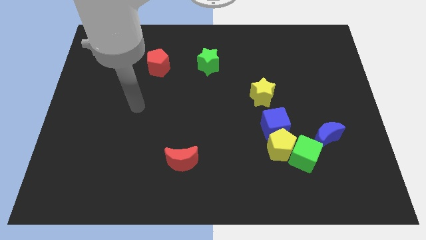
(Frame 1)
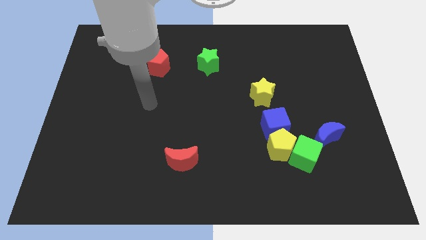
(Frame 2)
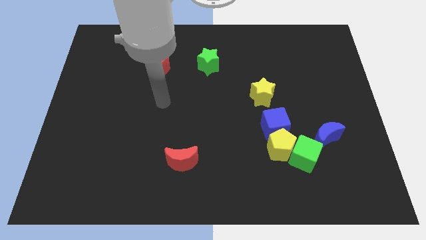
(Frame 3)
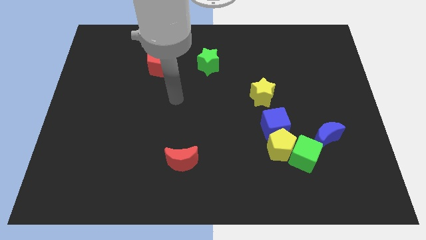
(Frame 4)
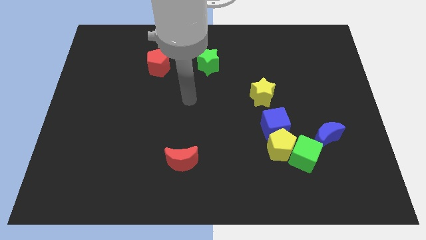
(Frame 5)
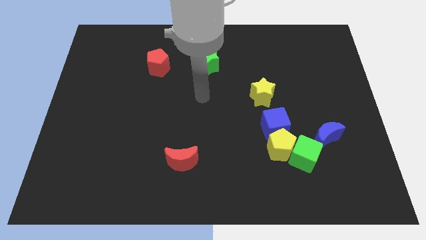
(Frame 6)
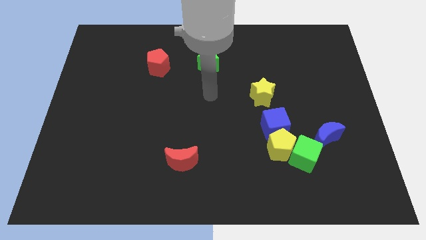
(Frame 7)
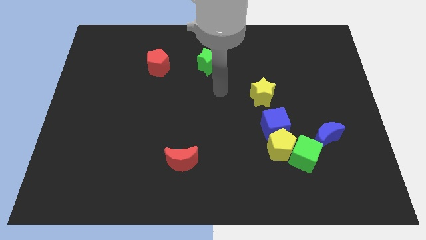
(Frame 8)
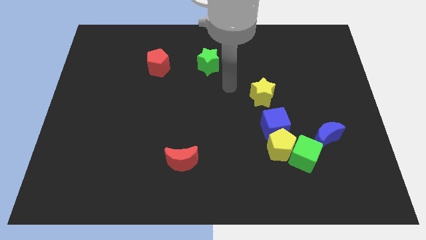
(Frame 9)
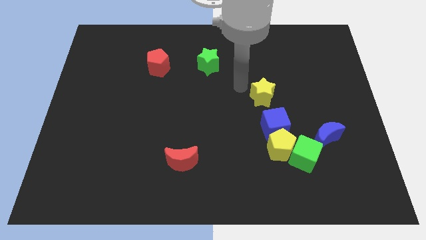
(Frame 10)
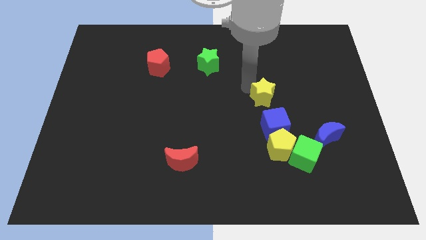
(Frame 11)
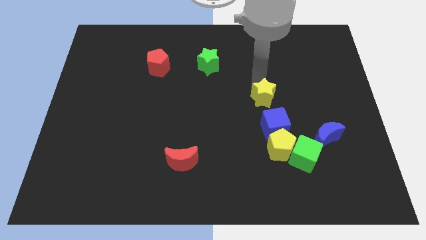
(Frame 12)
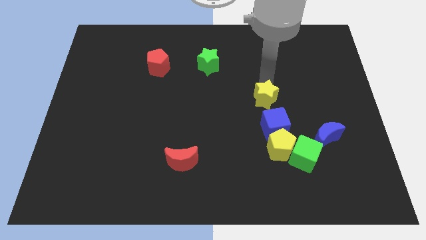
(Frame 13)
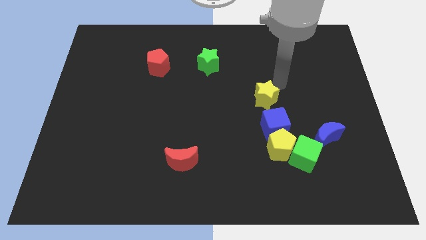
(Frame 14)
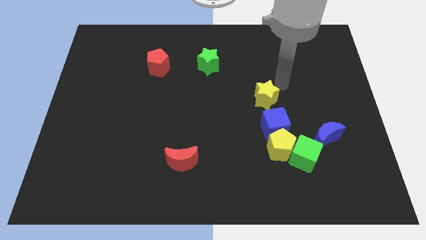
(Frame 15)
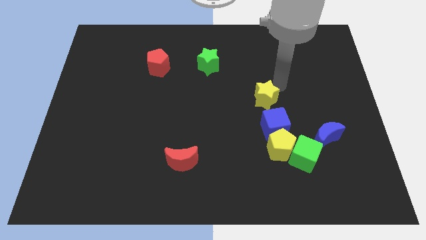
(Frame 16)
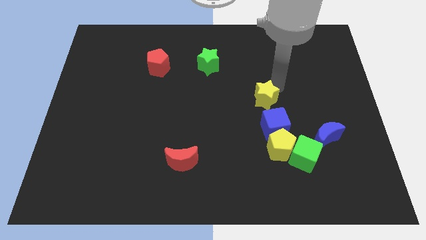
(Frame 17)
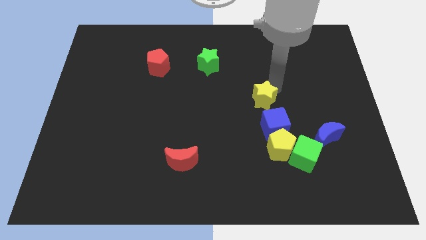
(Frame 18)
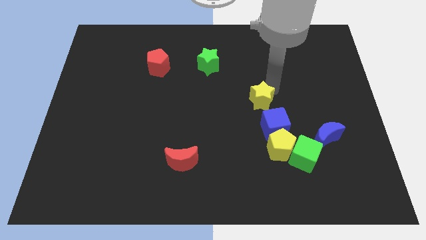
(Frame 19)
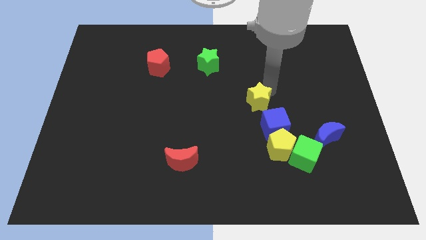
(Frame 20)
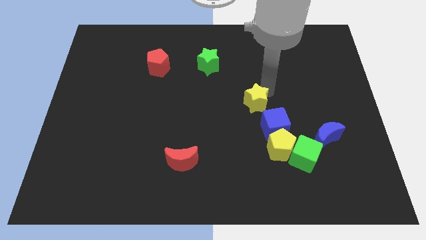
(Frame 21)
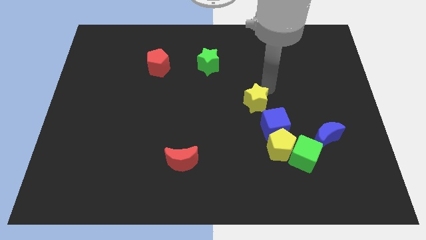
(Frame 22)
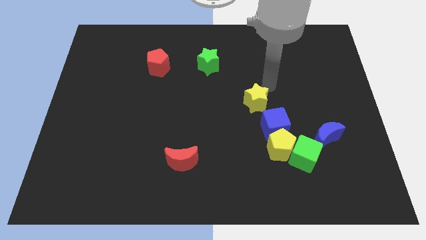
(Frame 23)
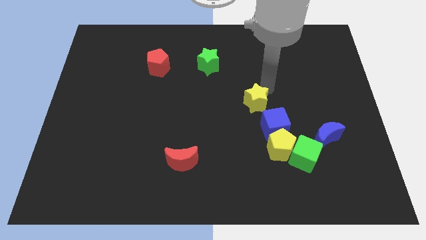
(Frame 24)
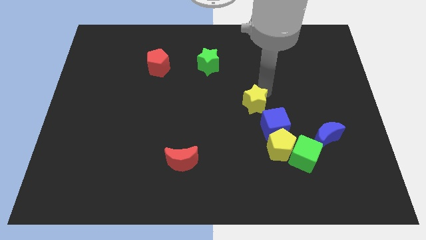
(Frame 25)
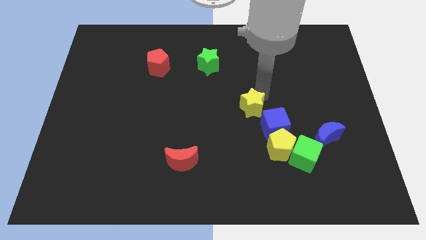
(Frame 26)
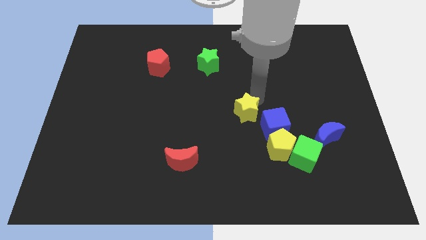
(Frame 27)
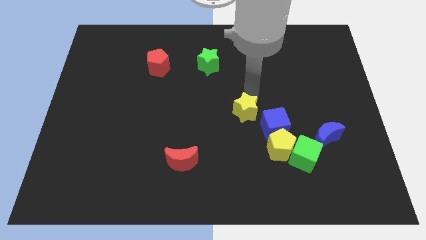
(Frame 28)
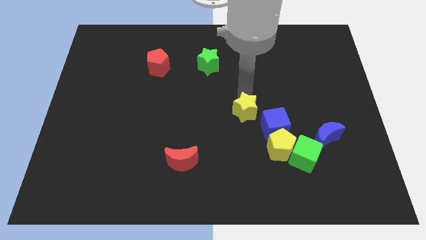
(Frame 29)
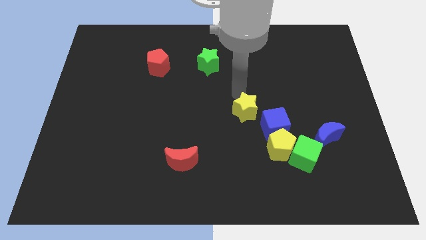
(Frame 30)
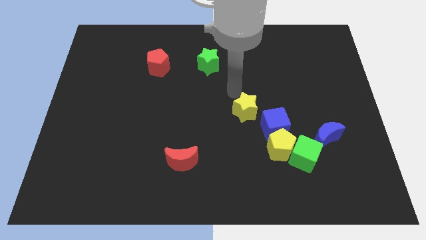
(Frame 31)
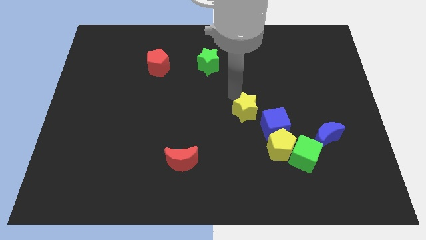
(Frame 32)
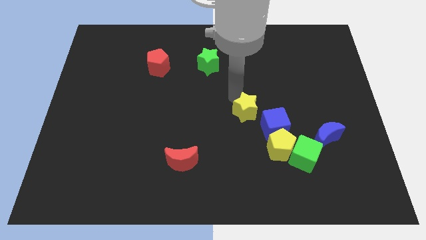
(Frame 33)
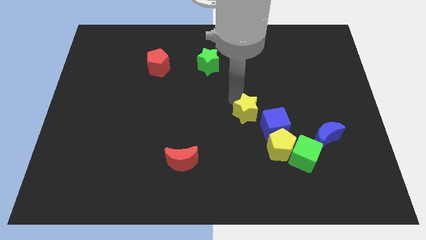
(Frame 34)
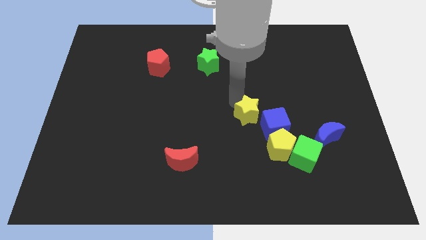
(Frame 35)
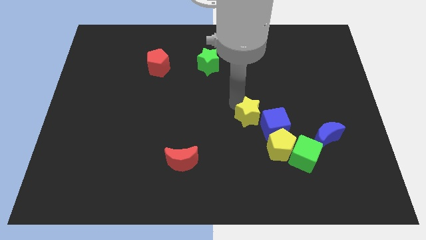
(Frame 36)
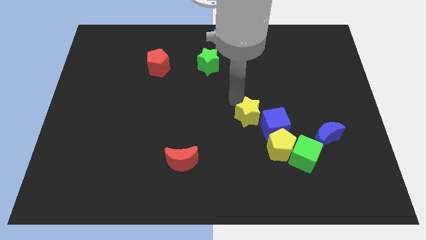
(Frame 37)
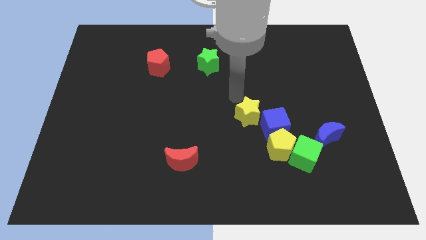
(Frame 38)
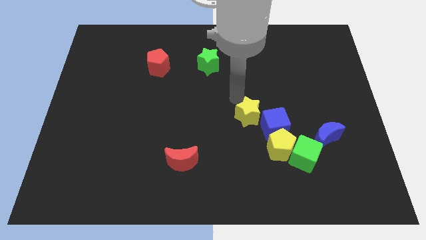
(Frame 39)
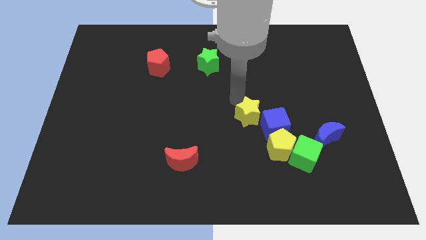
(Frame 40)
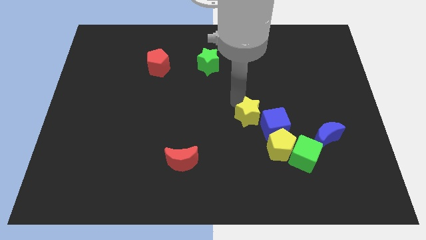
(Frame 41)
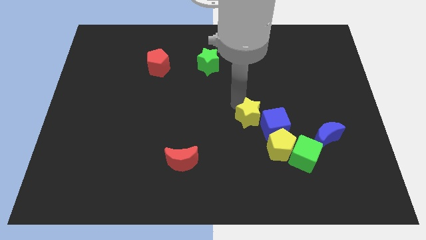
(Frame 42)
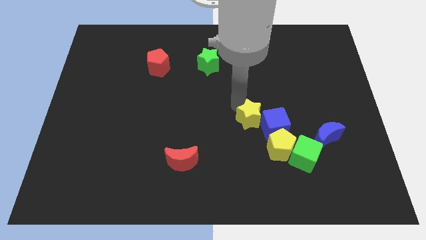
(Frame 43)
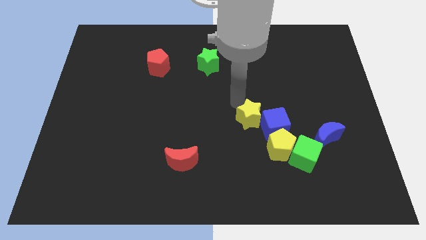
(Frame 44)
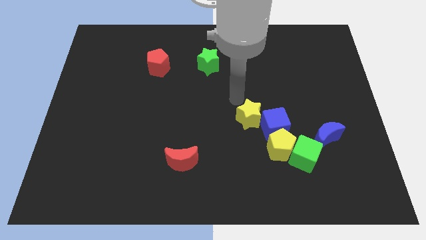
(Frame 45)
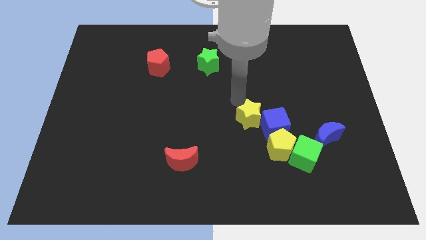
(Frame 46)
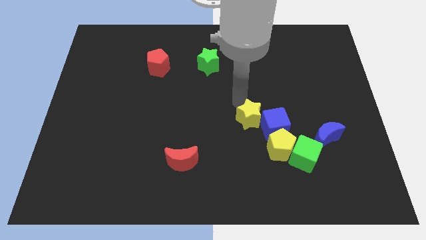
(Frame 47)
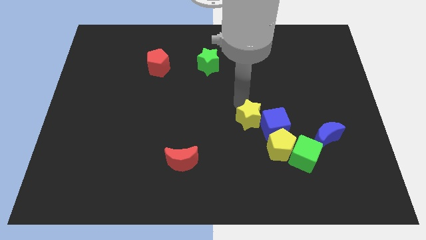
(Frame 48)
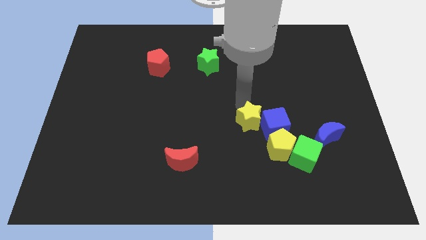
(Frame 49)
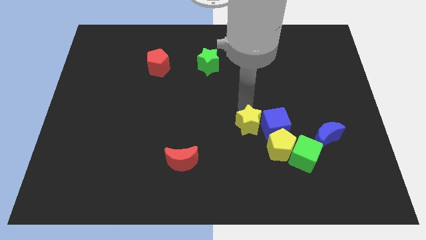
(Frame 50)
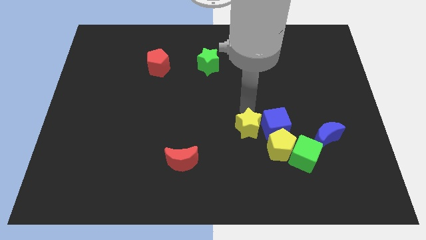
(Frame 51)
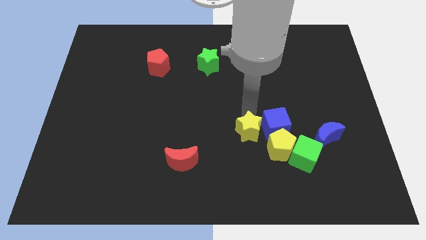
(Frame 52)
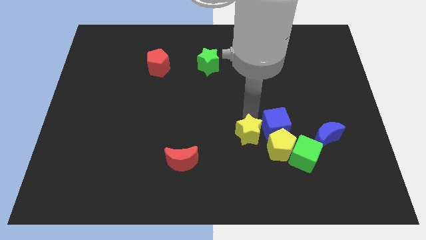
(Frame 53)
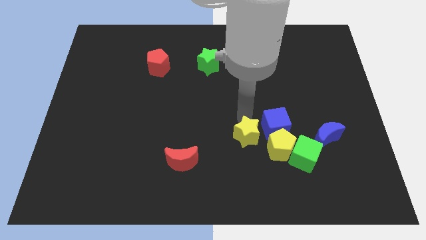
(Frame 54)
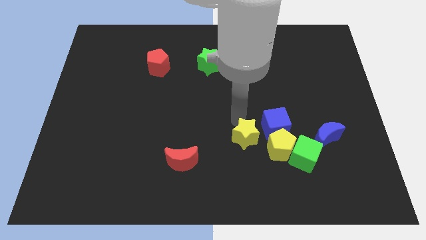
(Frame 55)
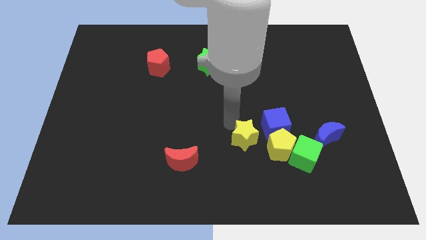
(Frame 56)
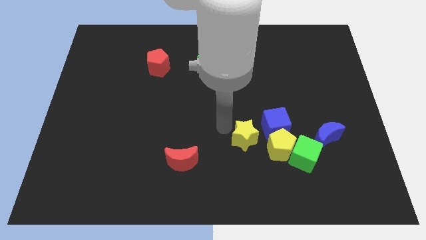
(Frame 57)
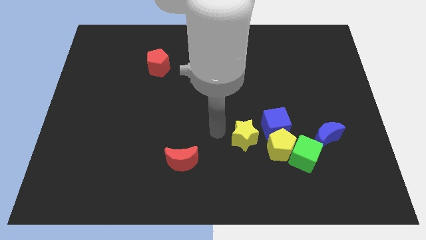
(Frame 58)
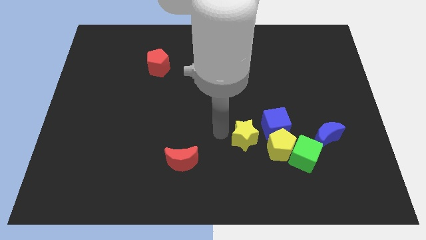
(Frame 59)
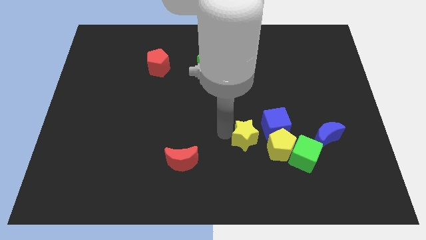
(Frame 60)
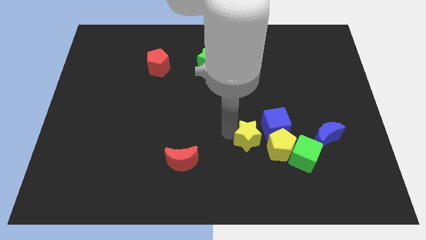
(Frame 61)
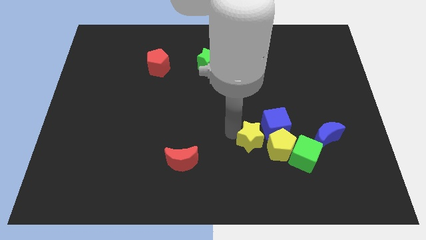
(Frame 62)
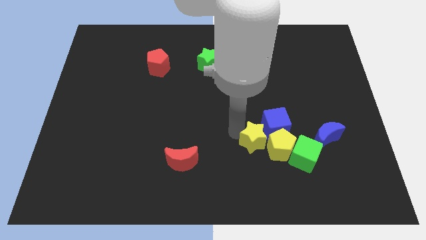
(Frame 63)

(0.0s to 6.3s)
move the yellow star towards the yellow pentagon

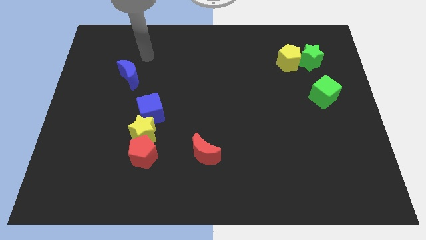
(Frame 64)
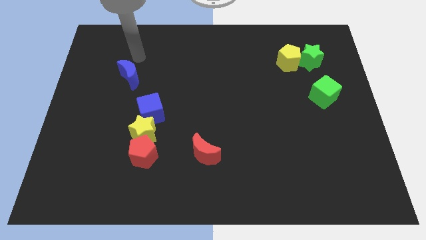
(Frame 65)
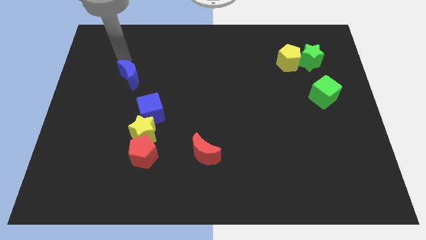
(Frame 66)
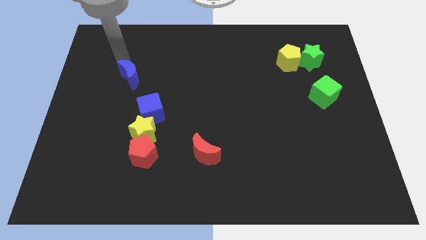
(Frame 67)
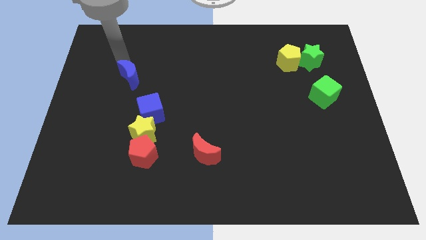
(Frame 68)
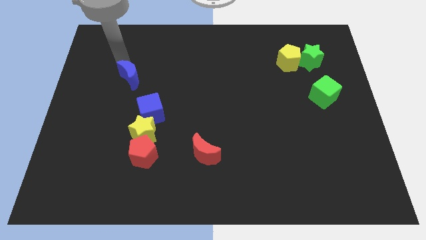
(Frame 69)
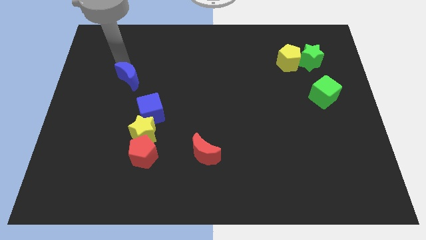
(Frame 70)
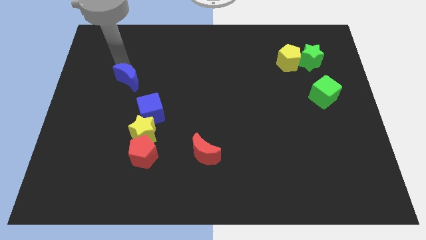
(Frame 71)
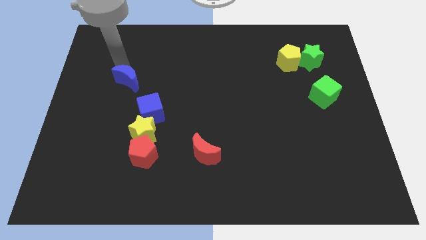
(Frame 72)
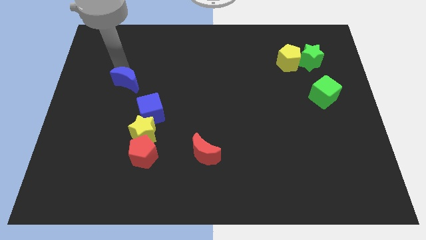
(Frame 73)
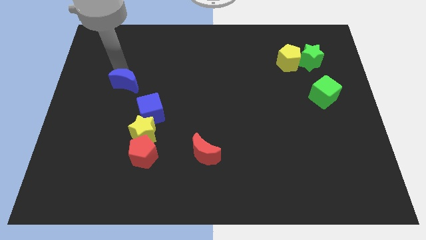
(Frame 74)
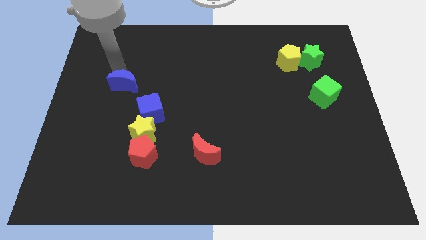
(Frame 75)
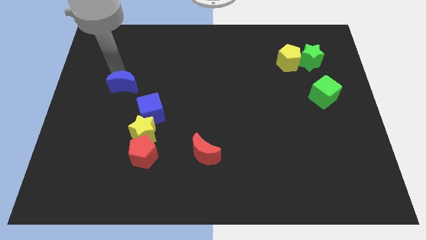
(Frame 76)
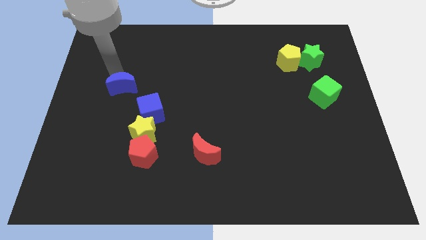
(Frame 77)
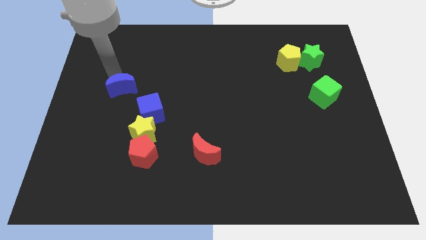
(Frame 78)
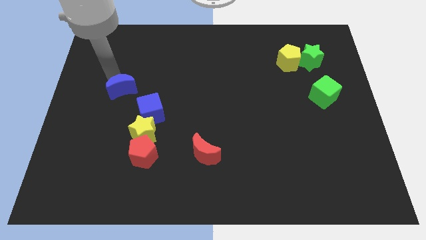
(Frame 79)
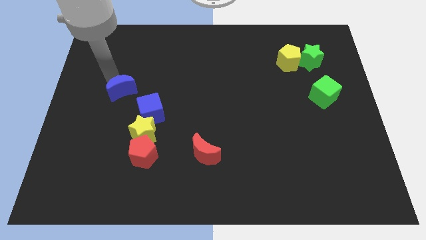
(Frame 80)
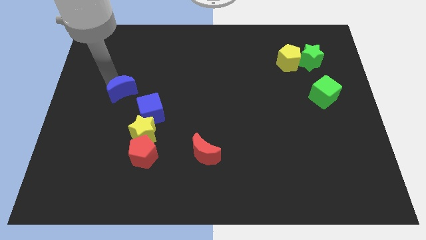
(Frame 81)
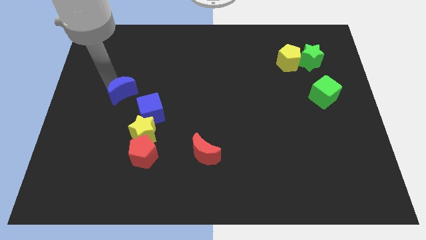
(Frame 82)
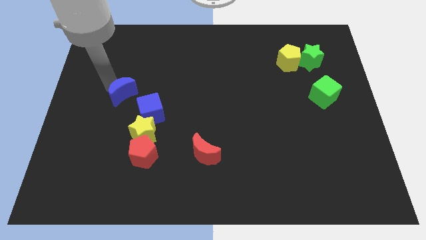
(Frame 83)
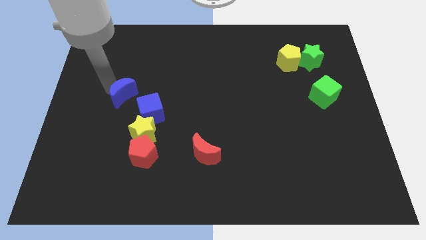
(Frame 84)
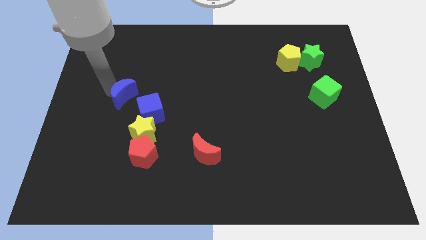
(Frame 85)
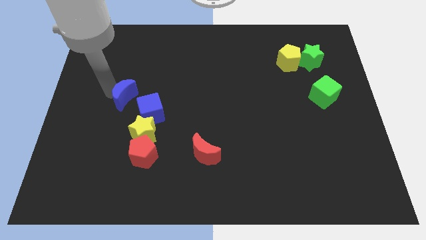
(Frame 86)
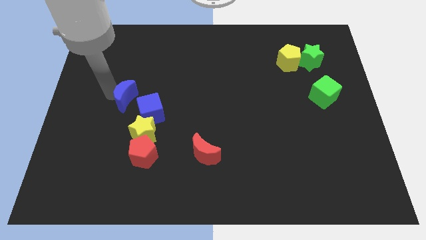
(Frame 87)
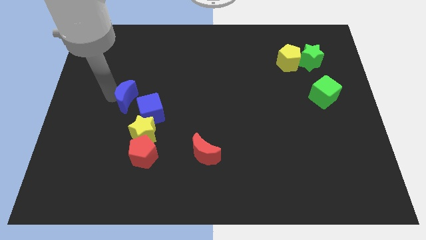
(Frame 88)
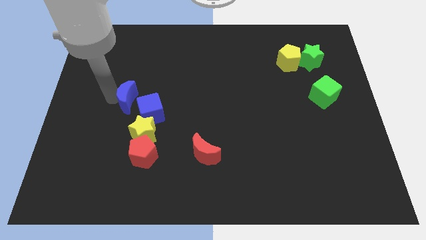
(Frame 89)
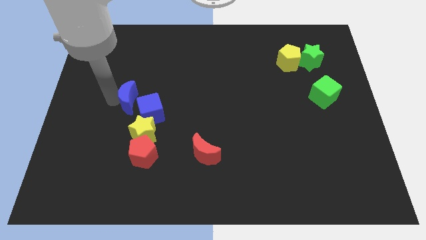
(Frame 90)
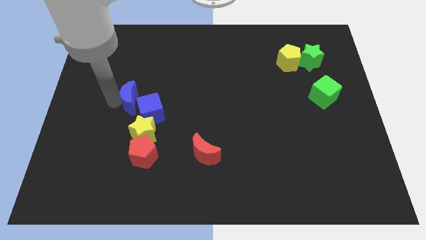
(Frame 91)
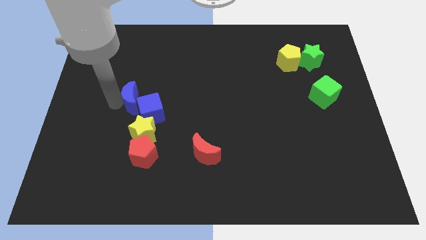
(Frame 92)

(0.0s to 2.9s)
slide the blue moon next to the blue cube
